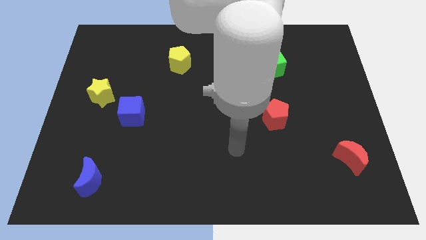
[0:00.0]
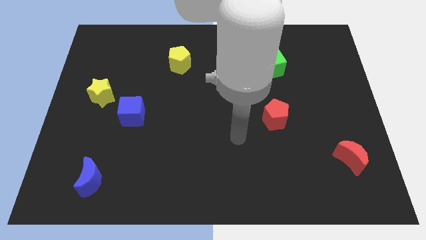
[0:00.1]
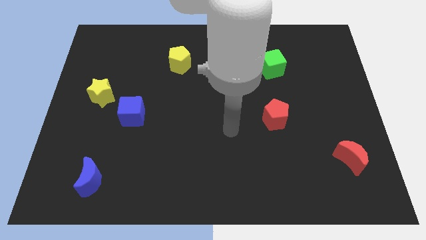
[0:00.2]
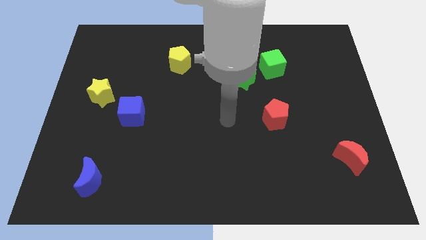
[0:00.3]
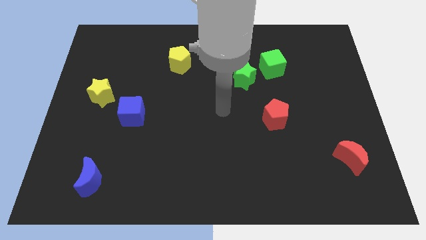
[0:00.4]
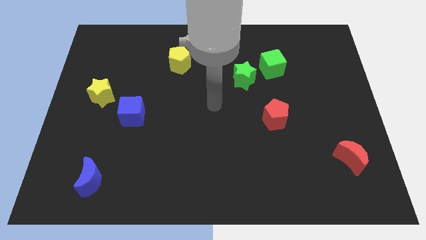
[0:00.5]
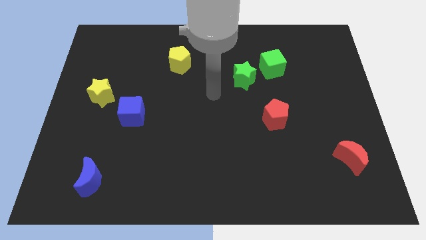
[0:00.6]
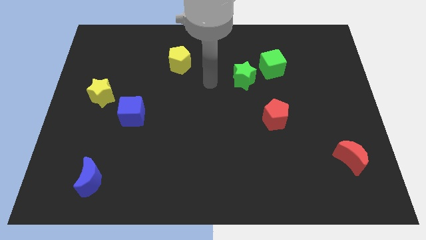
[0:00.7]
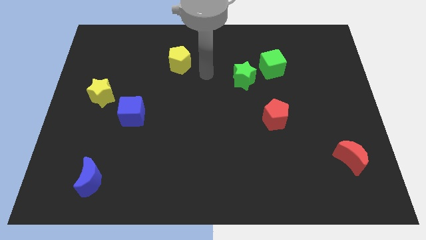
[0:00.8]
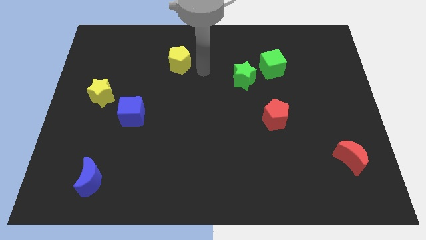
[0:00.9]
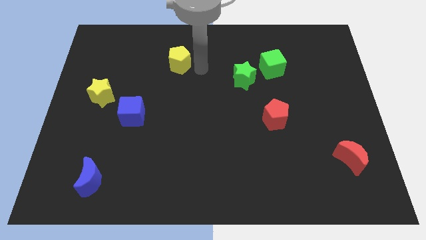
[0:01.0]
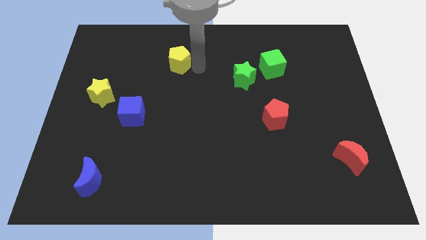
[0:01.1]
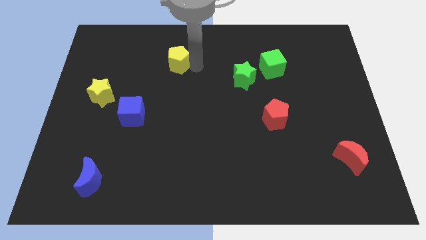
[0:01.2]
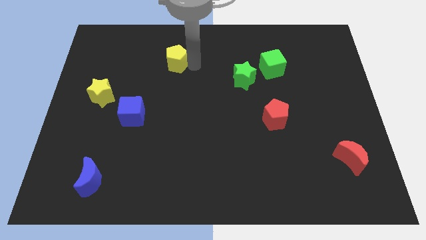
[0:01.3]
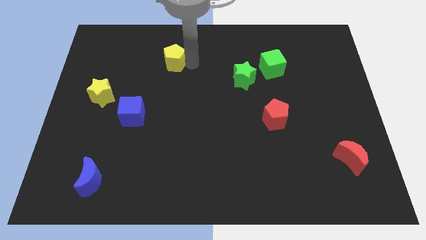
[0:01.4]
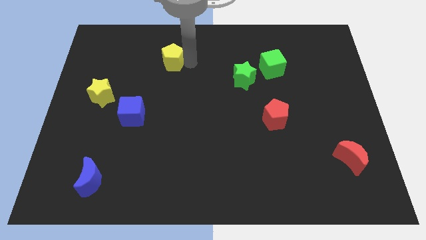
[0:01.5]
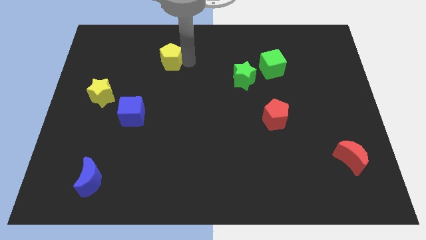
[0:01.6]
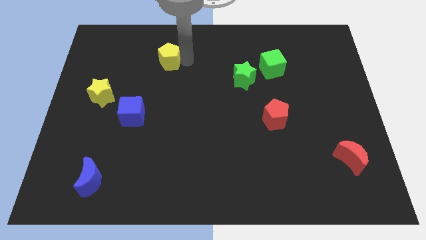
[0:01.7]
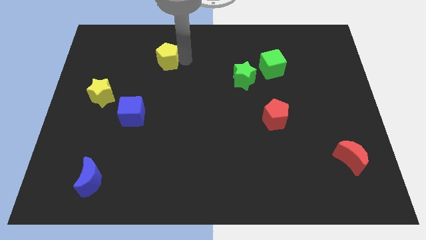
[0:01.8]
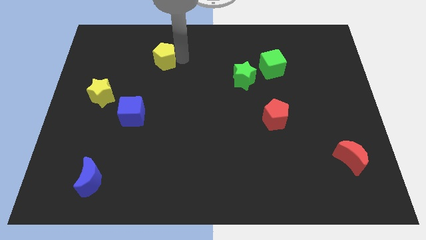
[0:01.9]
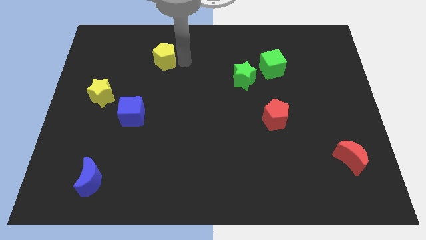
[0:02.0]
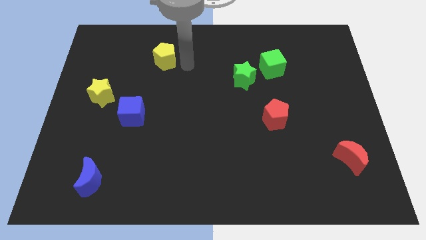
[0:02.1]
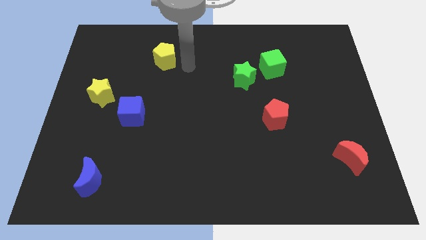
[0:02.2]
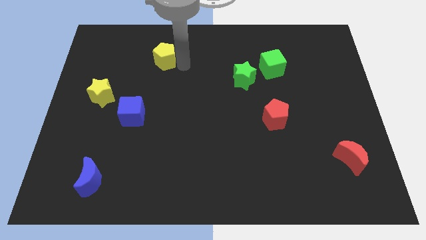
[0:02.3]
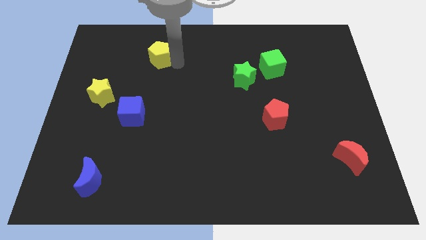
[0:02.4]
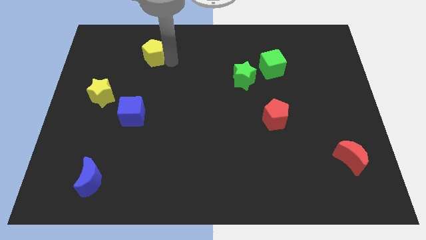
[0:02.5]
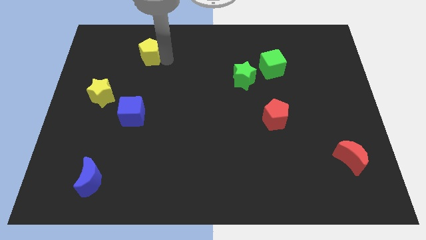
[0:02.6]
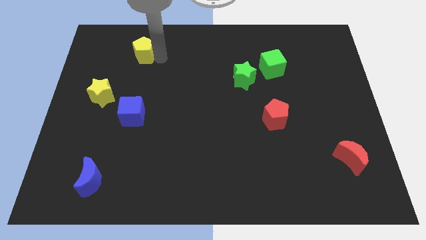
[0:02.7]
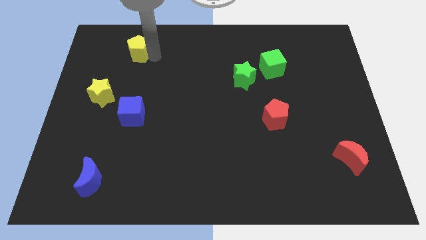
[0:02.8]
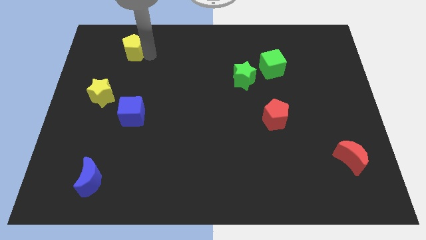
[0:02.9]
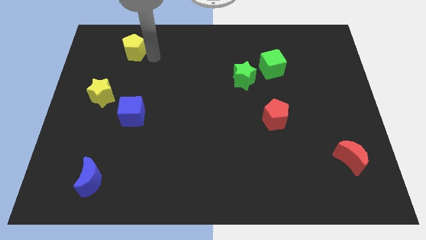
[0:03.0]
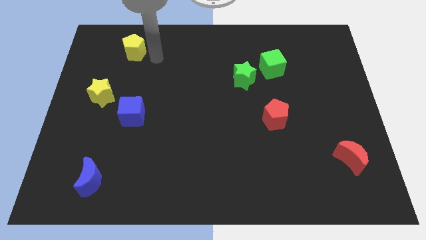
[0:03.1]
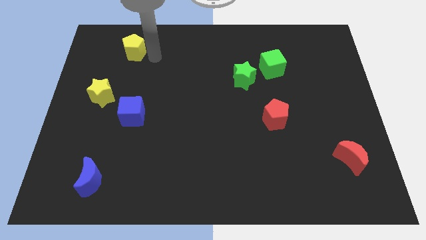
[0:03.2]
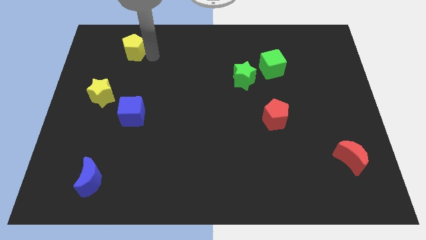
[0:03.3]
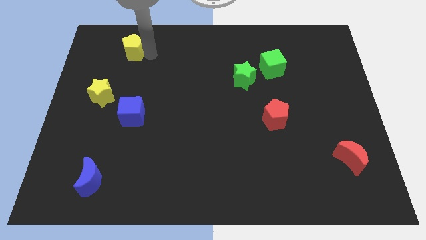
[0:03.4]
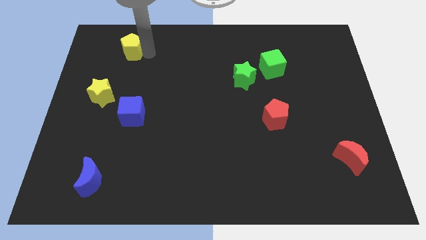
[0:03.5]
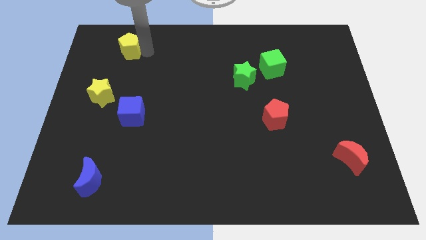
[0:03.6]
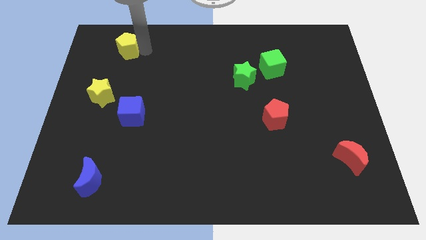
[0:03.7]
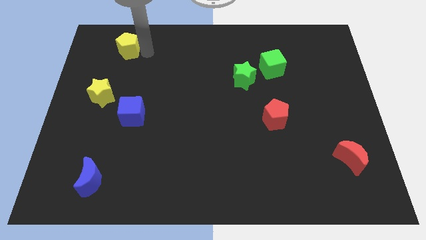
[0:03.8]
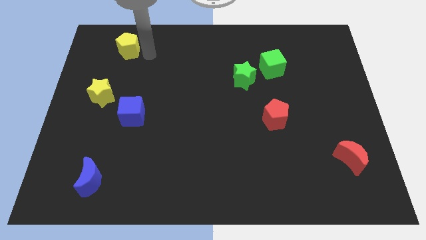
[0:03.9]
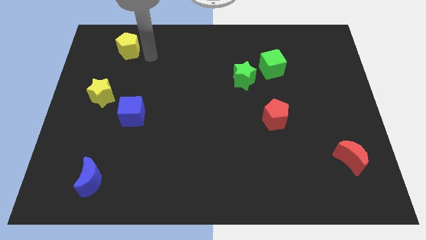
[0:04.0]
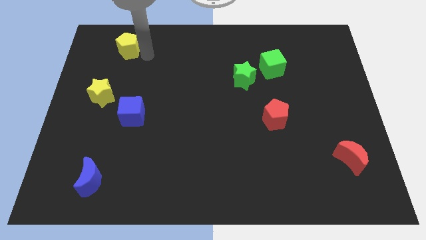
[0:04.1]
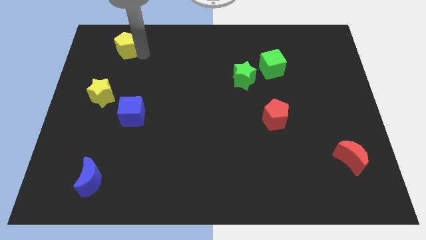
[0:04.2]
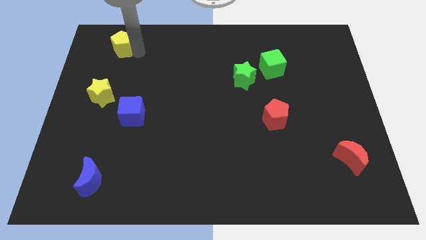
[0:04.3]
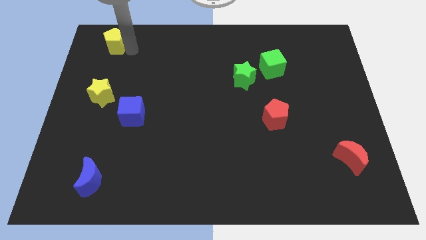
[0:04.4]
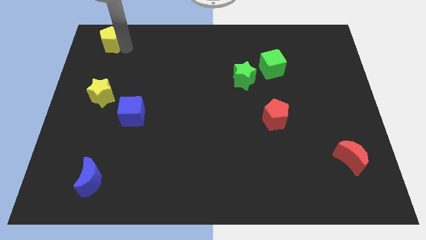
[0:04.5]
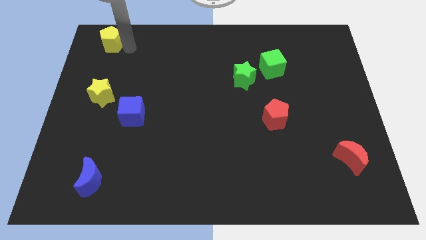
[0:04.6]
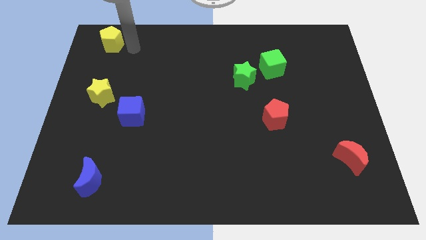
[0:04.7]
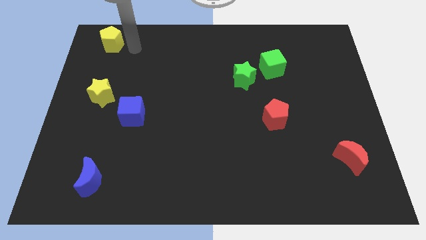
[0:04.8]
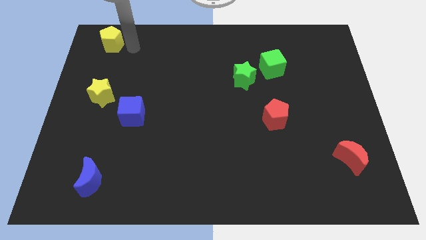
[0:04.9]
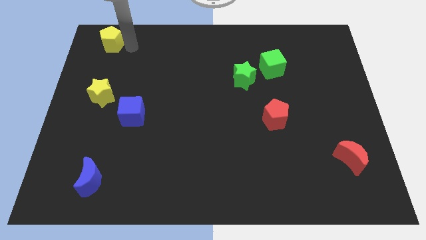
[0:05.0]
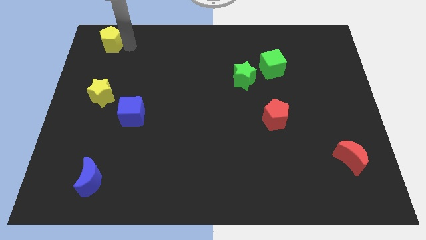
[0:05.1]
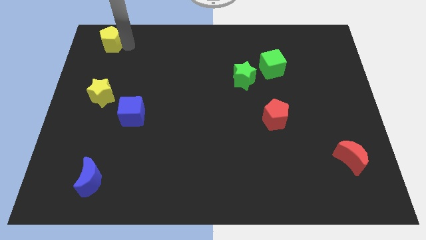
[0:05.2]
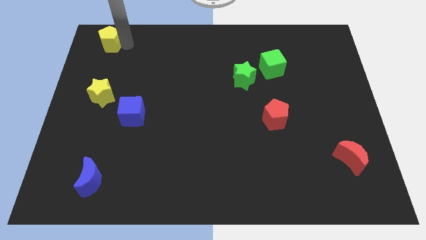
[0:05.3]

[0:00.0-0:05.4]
push the yellow pentagon to the top left of the board

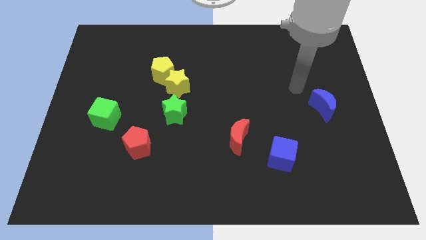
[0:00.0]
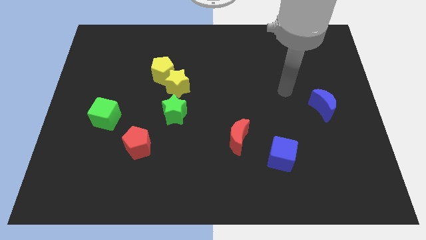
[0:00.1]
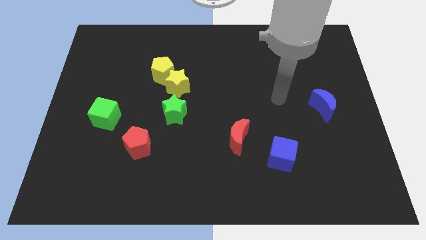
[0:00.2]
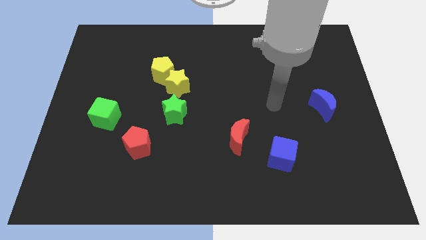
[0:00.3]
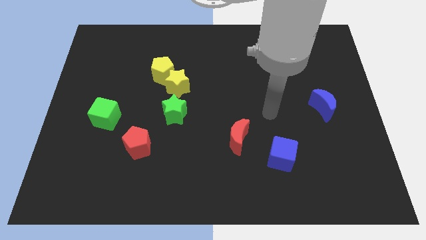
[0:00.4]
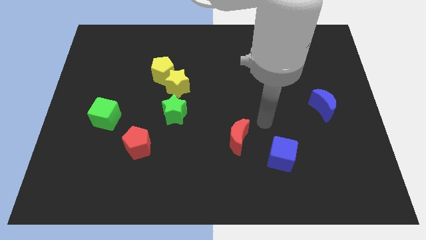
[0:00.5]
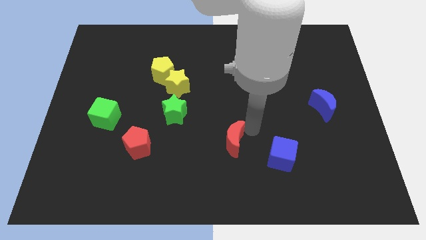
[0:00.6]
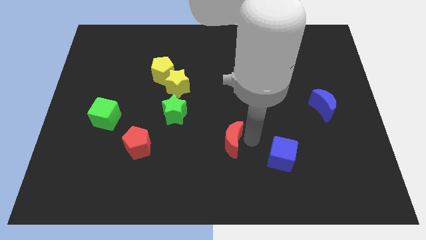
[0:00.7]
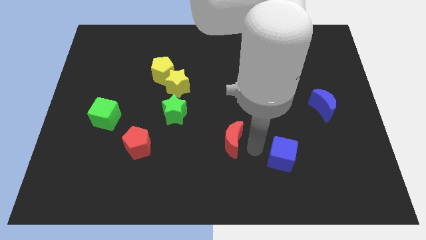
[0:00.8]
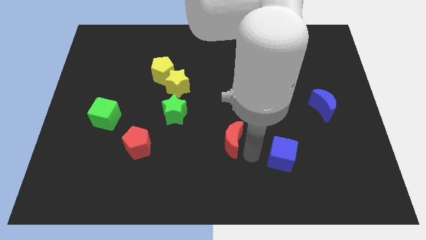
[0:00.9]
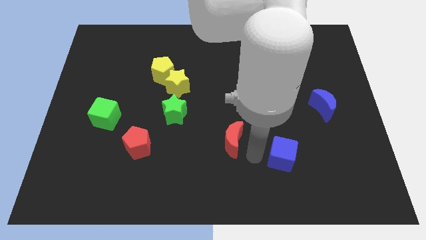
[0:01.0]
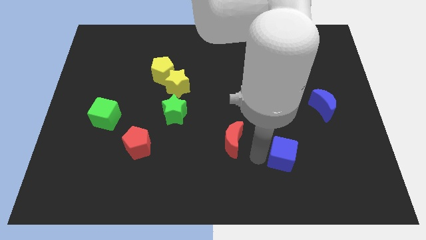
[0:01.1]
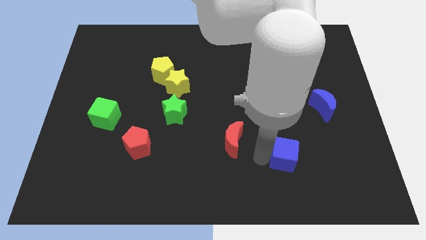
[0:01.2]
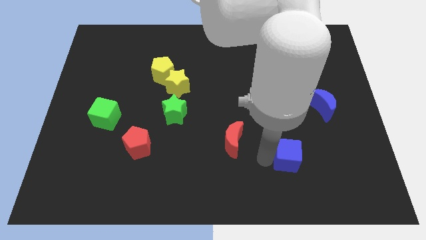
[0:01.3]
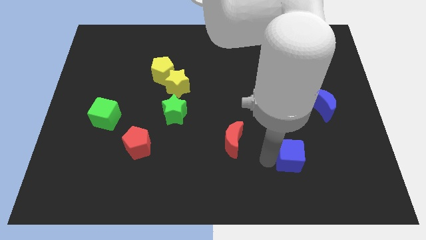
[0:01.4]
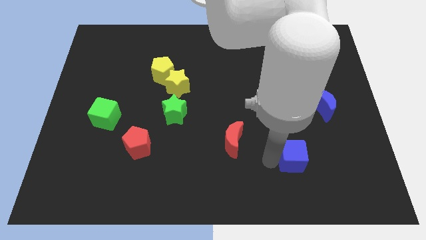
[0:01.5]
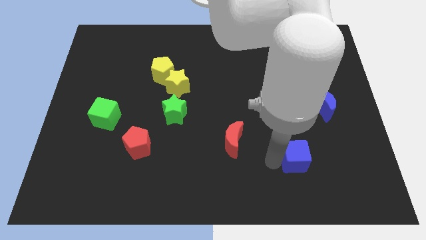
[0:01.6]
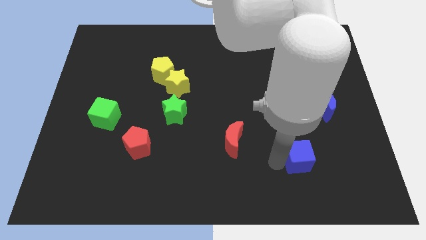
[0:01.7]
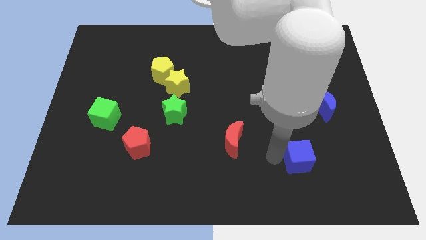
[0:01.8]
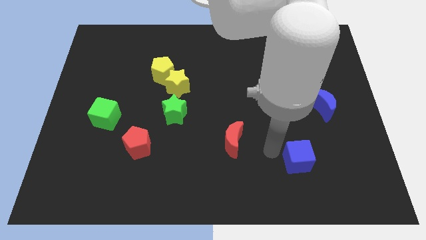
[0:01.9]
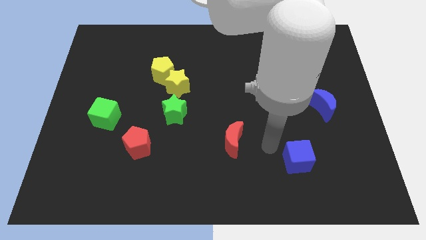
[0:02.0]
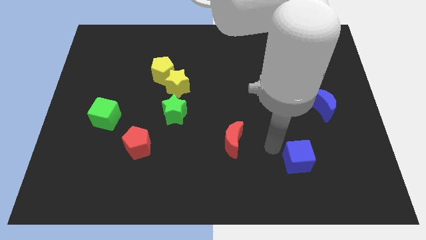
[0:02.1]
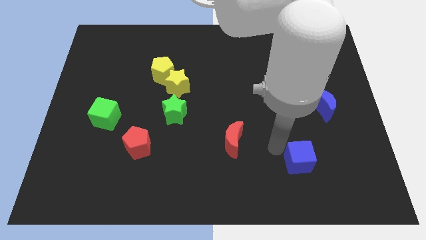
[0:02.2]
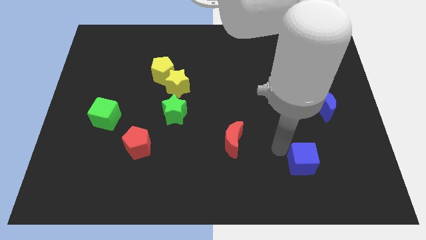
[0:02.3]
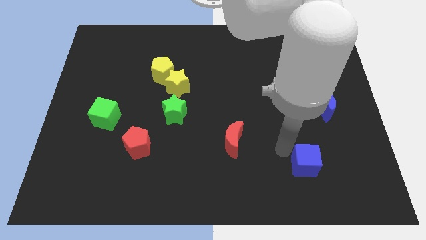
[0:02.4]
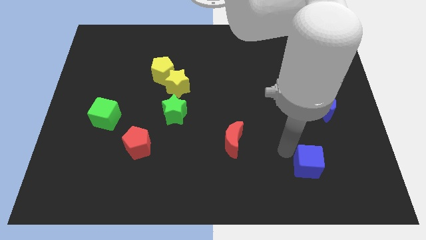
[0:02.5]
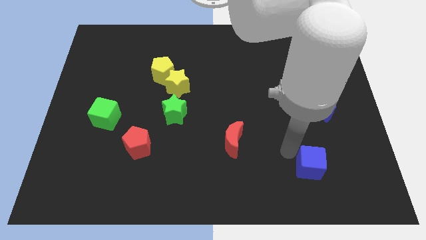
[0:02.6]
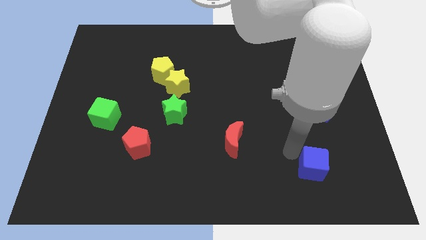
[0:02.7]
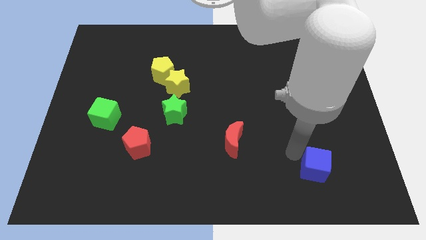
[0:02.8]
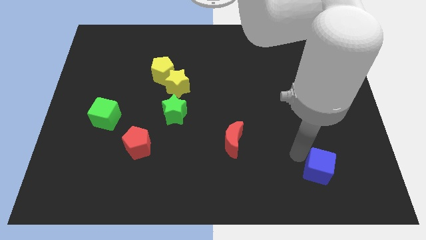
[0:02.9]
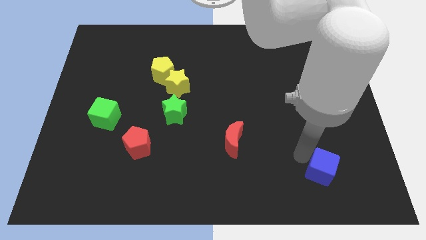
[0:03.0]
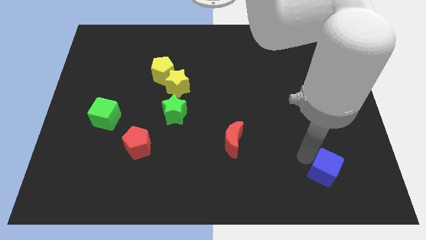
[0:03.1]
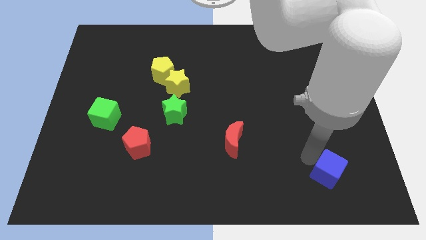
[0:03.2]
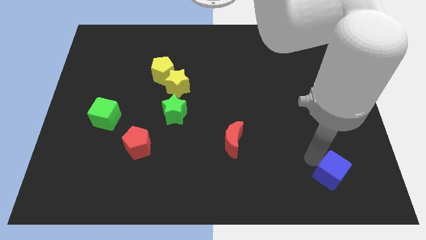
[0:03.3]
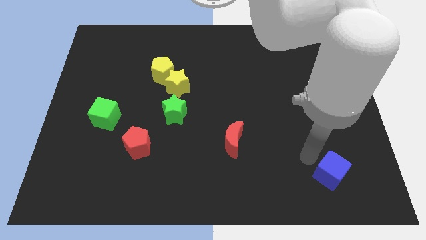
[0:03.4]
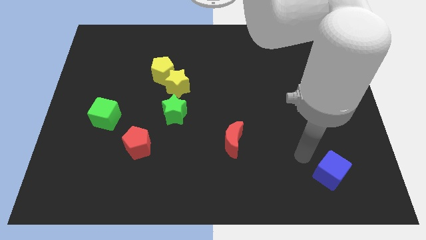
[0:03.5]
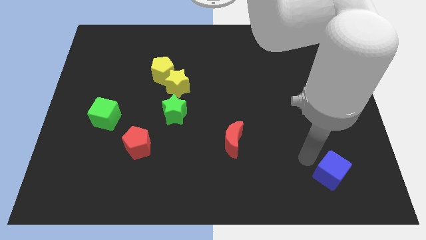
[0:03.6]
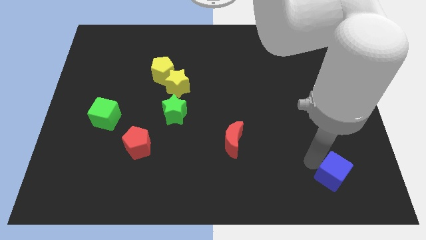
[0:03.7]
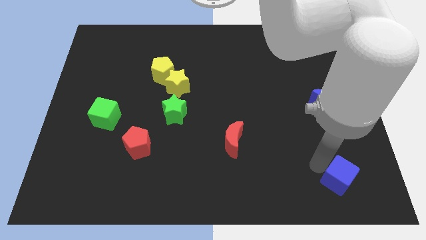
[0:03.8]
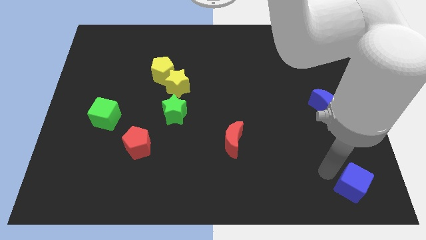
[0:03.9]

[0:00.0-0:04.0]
put the blue cube to the bottom right of the board
